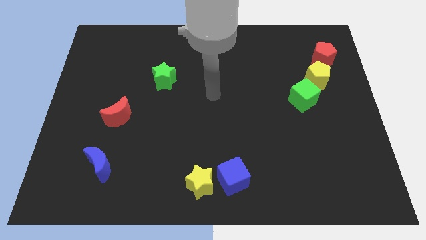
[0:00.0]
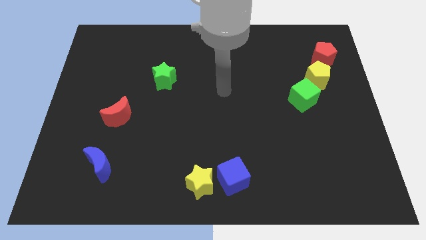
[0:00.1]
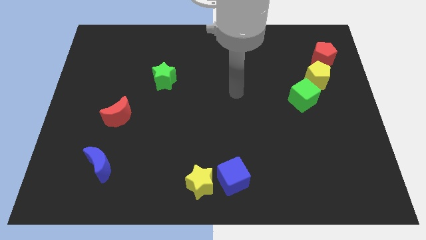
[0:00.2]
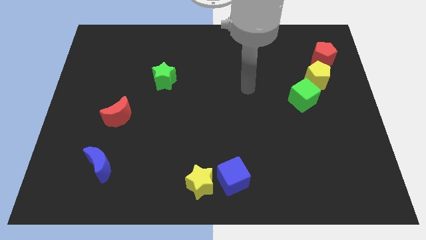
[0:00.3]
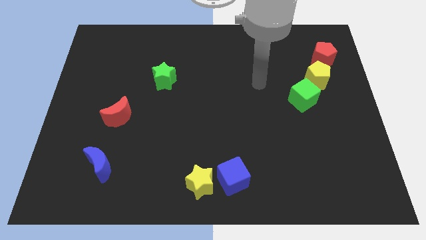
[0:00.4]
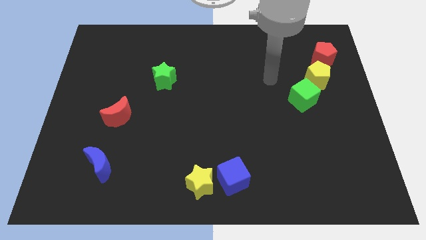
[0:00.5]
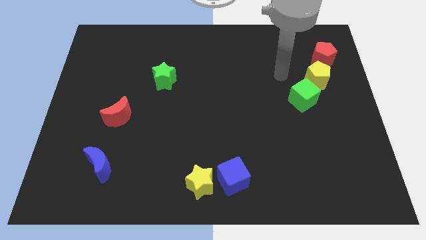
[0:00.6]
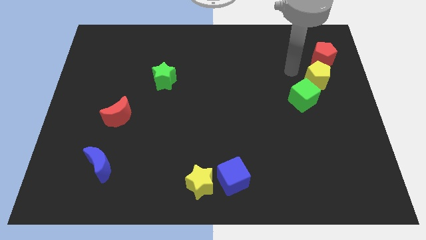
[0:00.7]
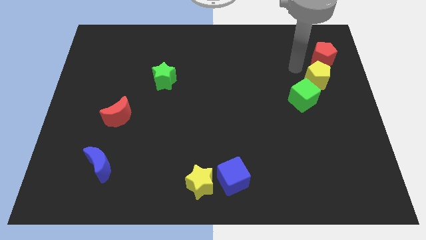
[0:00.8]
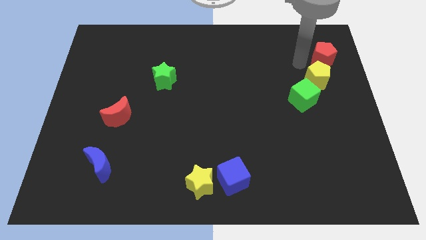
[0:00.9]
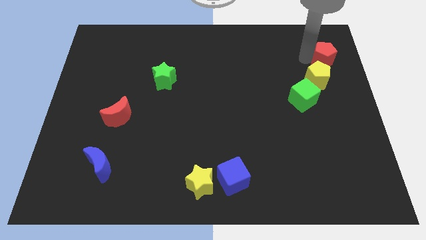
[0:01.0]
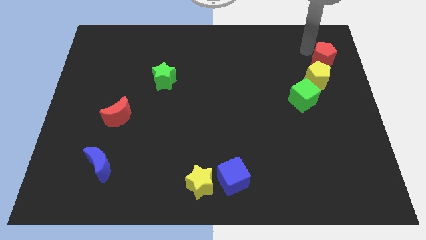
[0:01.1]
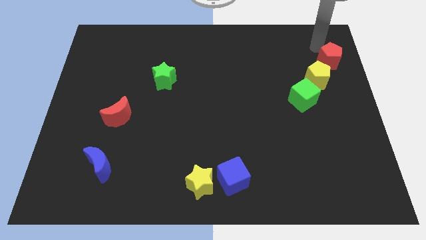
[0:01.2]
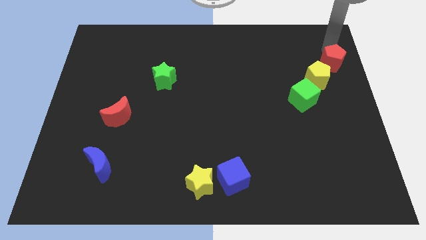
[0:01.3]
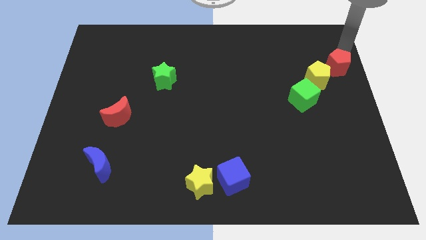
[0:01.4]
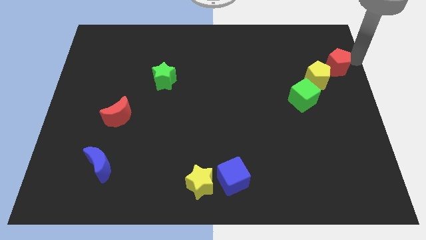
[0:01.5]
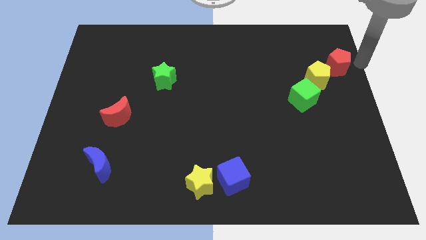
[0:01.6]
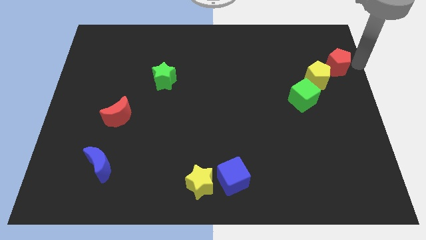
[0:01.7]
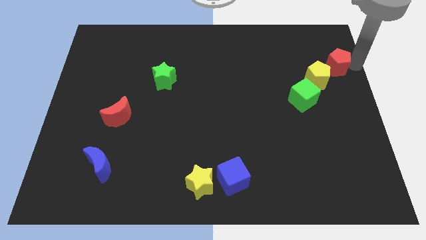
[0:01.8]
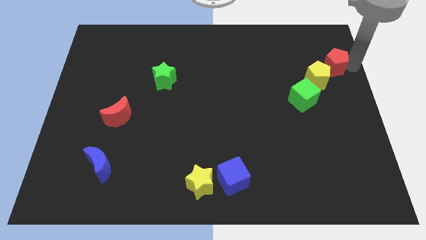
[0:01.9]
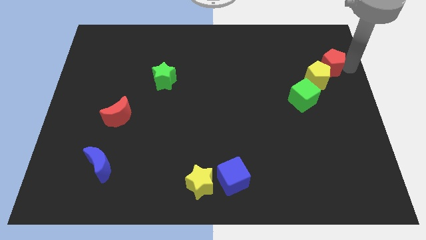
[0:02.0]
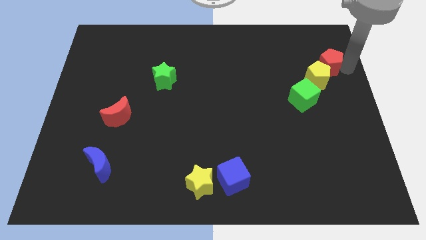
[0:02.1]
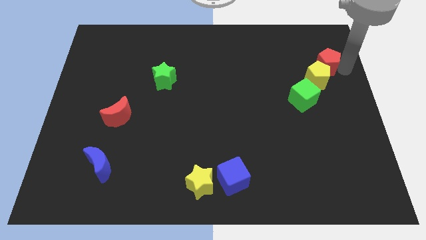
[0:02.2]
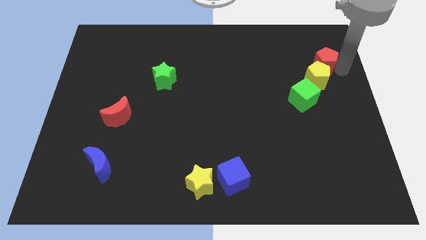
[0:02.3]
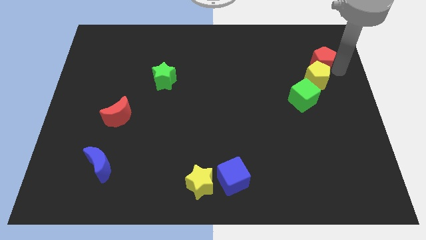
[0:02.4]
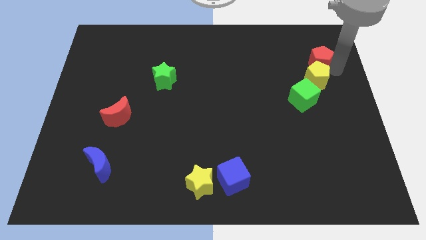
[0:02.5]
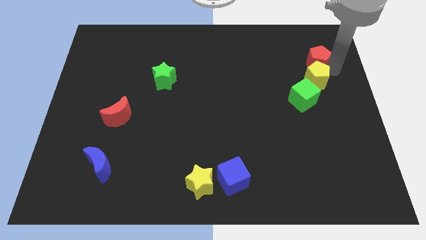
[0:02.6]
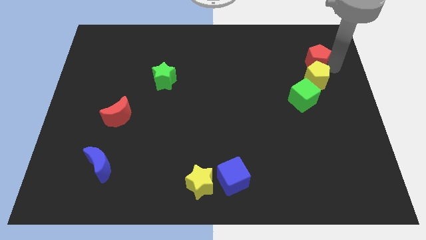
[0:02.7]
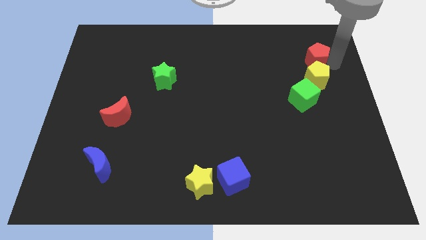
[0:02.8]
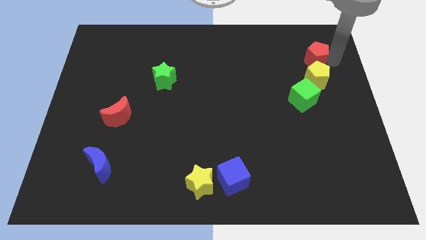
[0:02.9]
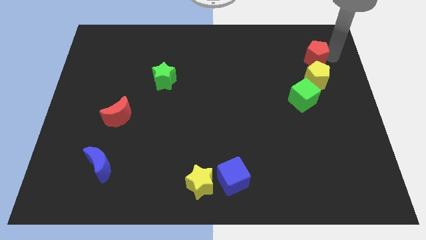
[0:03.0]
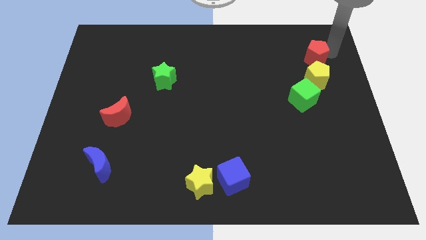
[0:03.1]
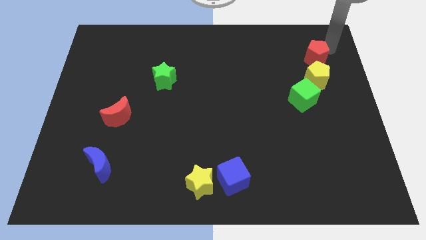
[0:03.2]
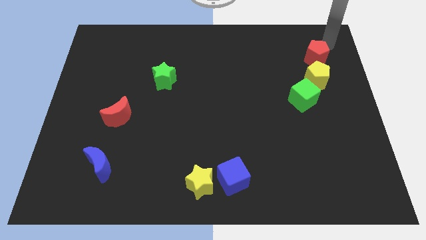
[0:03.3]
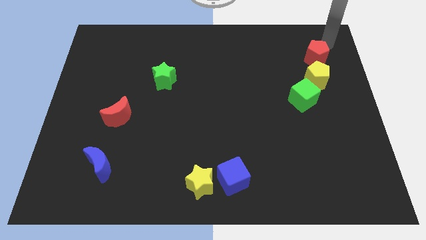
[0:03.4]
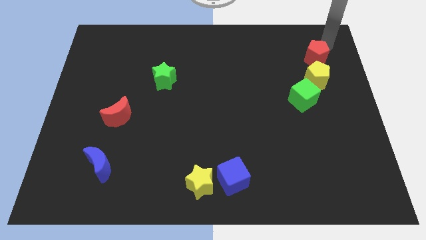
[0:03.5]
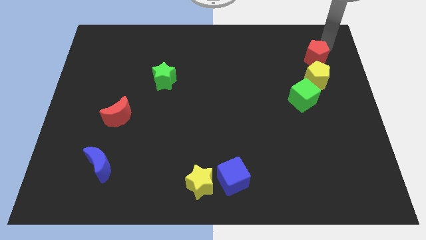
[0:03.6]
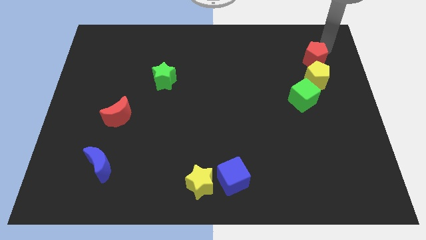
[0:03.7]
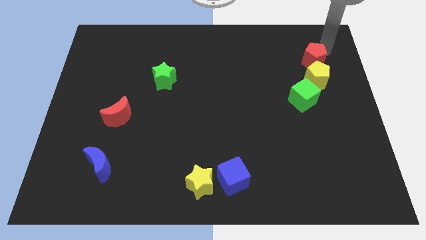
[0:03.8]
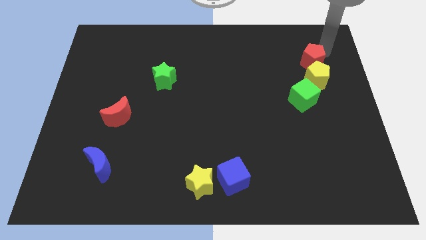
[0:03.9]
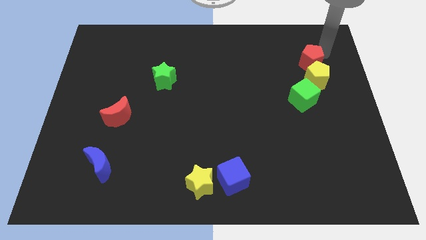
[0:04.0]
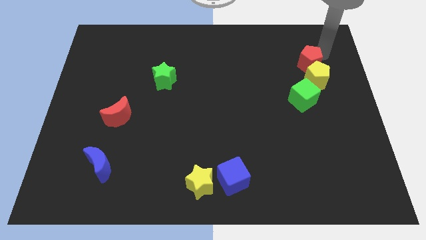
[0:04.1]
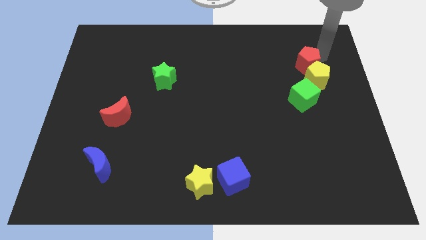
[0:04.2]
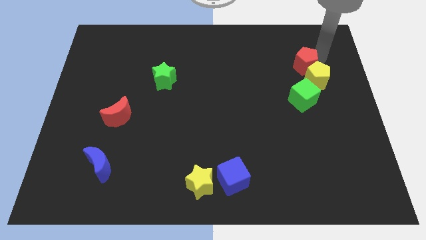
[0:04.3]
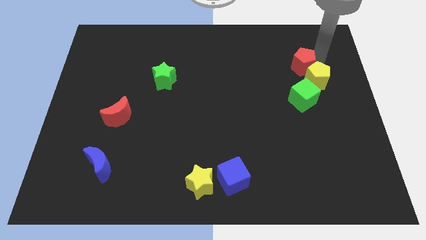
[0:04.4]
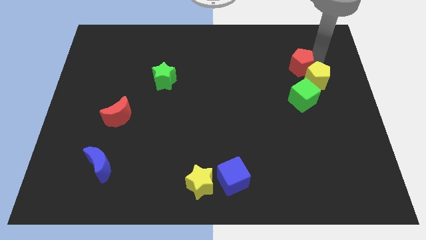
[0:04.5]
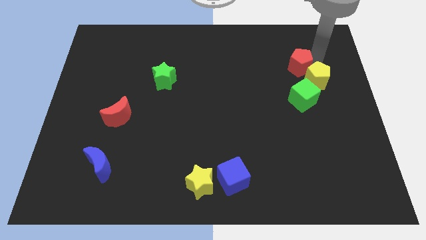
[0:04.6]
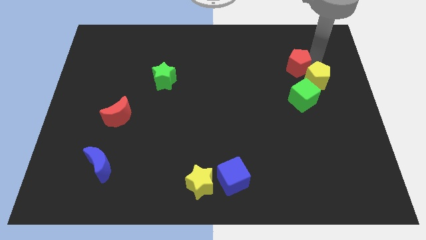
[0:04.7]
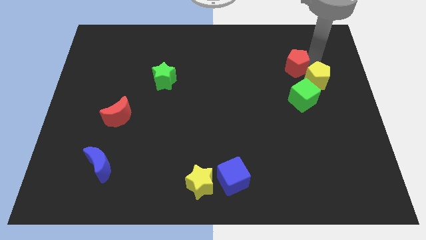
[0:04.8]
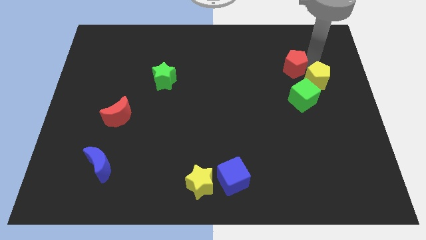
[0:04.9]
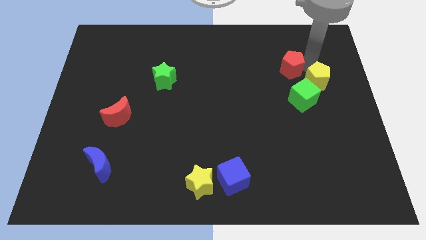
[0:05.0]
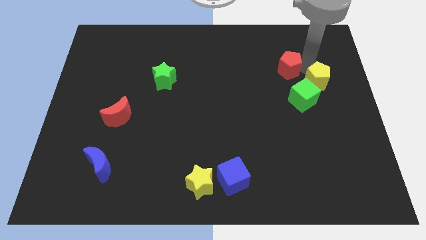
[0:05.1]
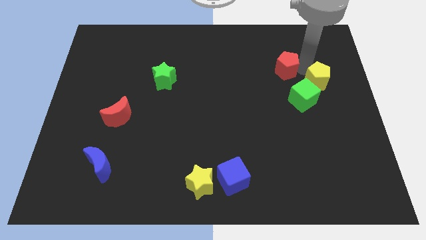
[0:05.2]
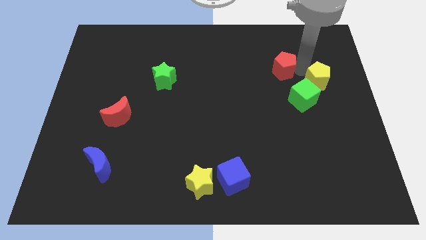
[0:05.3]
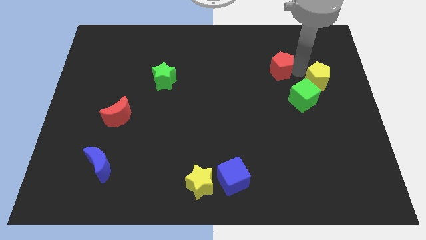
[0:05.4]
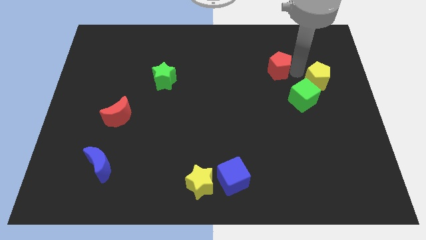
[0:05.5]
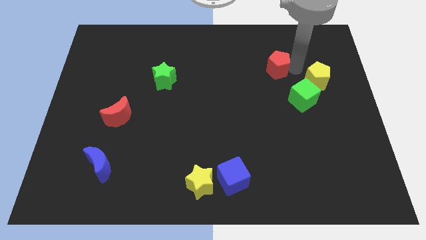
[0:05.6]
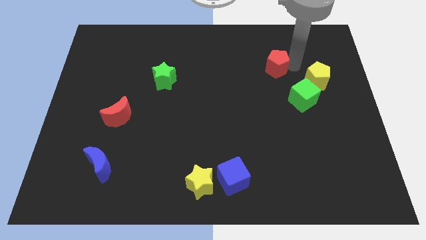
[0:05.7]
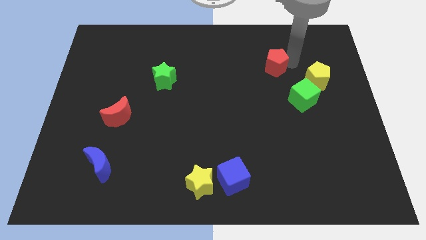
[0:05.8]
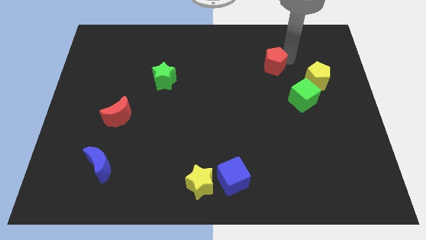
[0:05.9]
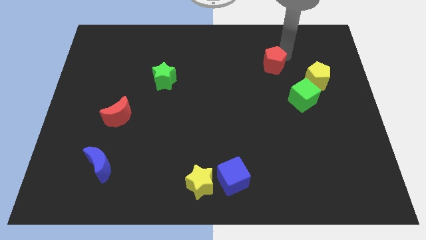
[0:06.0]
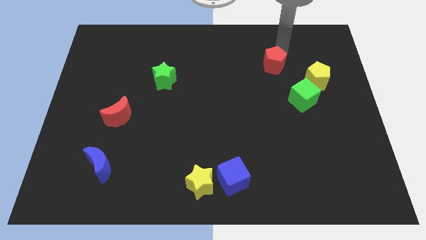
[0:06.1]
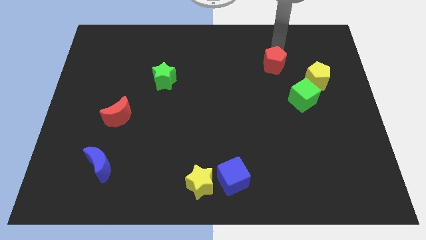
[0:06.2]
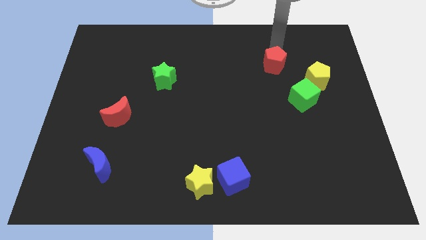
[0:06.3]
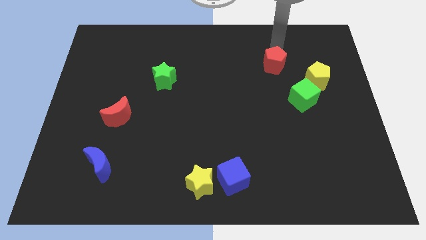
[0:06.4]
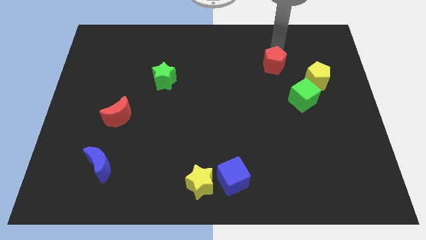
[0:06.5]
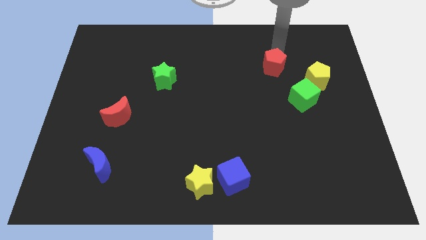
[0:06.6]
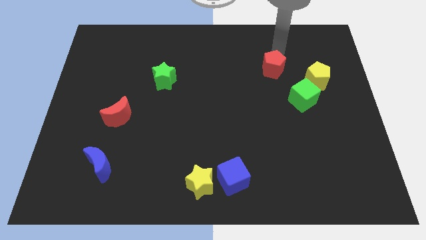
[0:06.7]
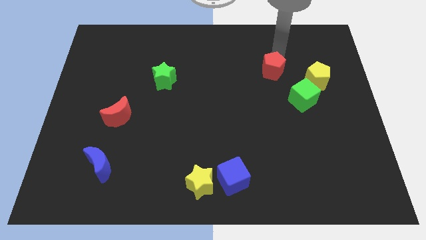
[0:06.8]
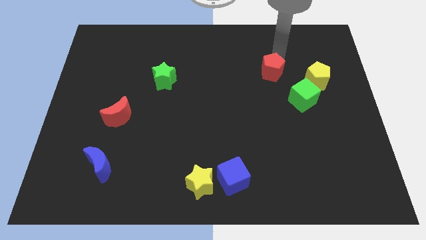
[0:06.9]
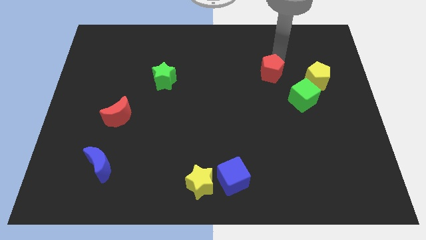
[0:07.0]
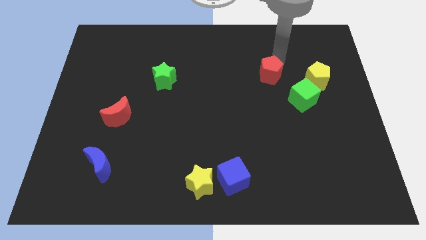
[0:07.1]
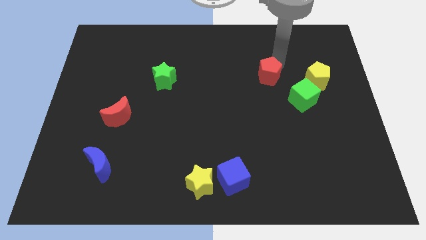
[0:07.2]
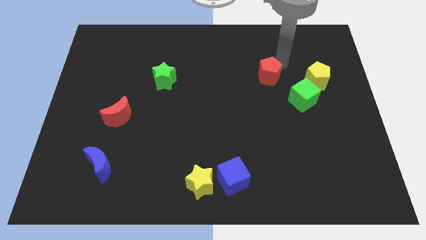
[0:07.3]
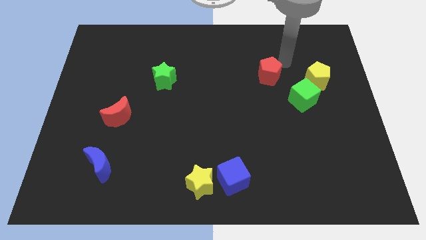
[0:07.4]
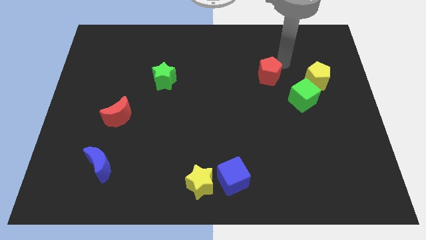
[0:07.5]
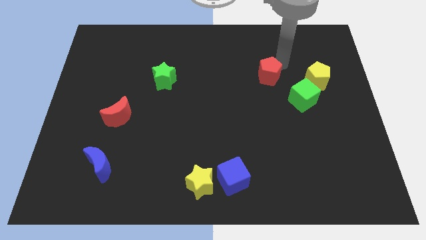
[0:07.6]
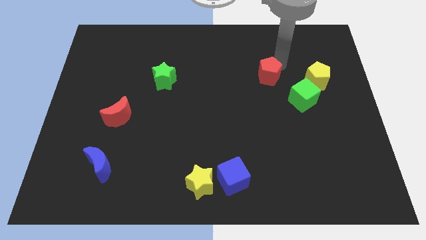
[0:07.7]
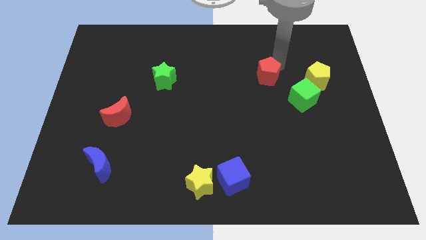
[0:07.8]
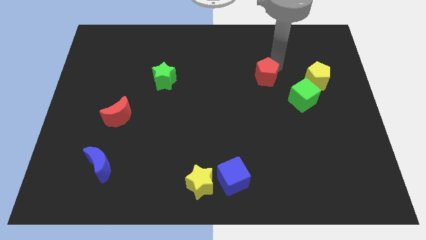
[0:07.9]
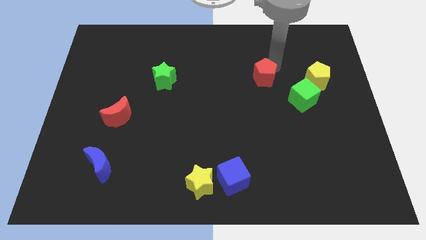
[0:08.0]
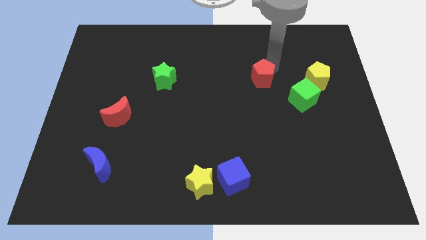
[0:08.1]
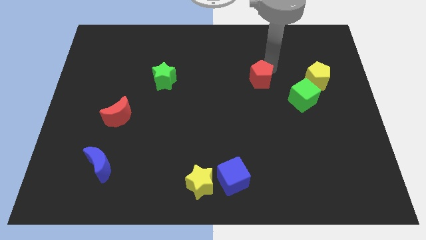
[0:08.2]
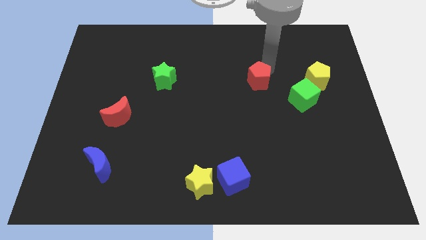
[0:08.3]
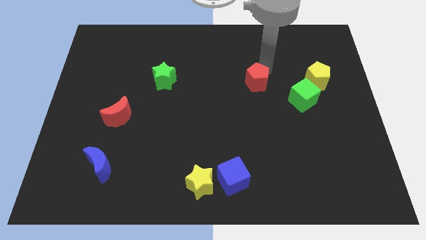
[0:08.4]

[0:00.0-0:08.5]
slide the red pentagon to the center

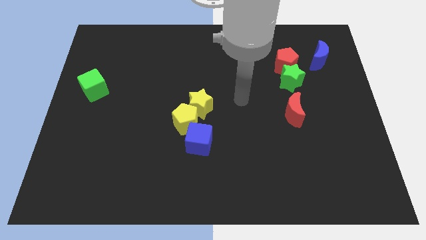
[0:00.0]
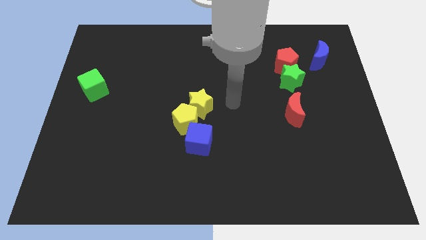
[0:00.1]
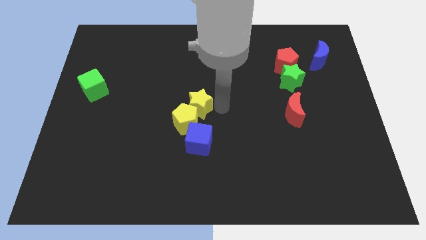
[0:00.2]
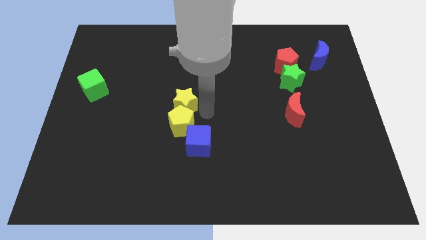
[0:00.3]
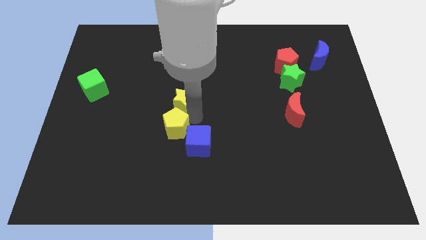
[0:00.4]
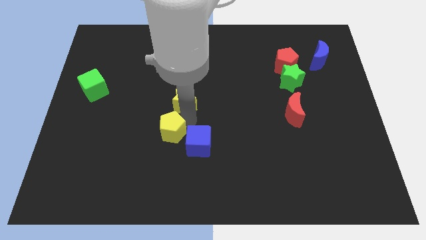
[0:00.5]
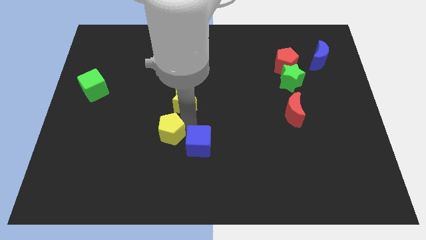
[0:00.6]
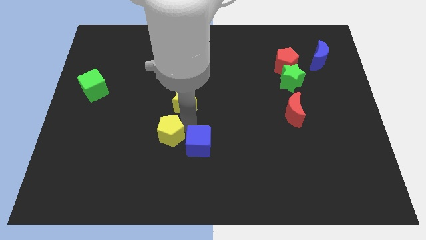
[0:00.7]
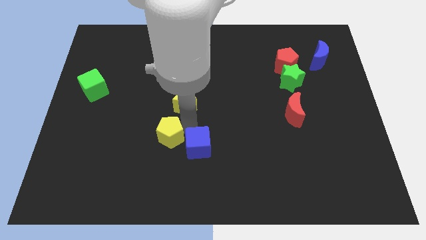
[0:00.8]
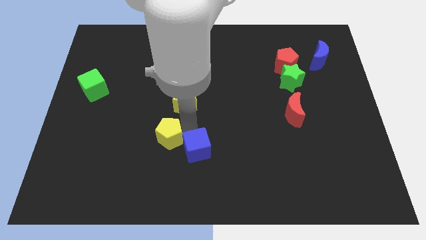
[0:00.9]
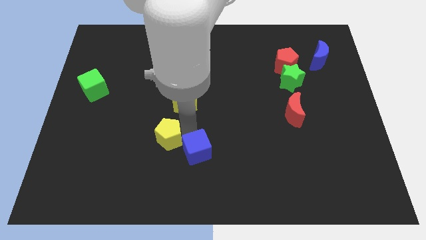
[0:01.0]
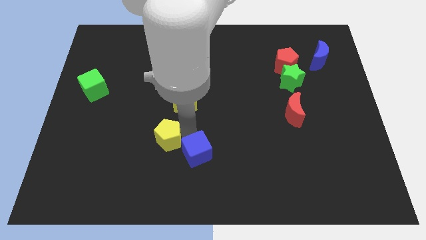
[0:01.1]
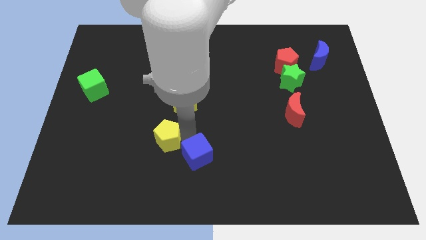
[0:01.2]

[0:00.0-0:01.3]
slide the blue cube to the bottom side
